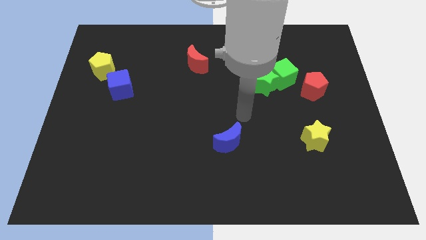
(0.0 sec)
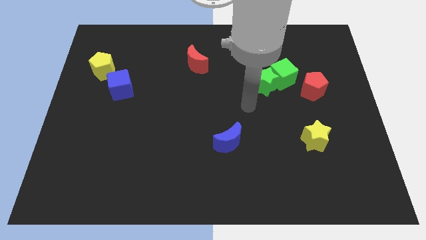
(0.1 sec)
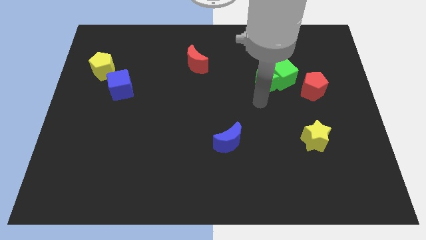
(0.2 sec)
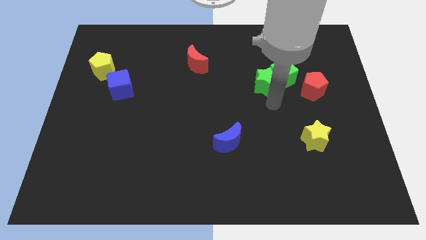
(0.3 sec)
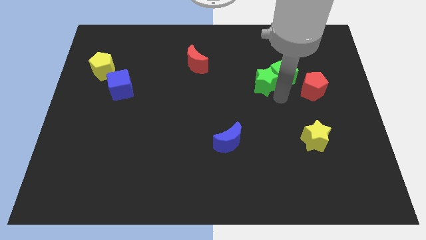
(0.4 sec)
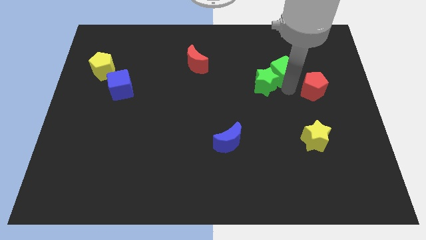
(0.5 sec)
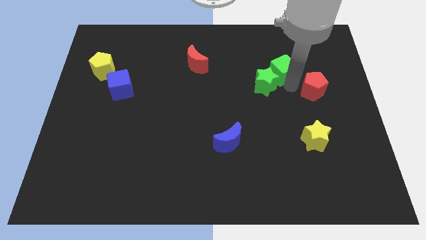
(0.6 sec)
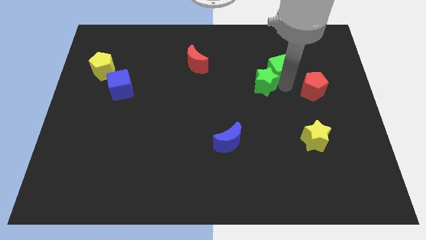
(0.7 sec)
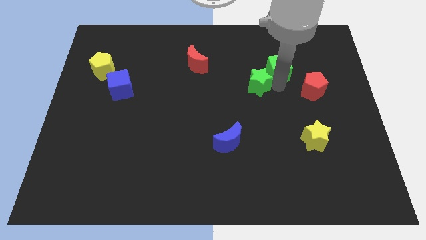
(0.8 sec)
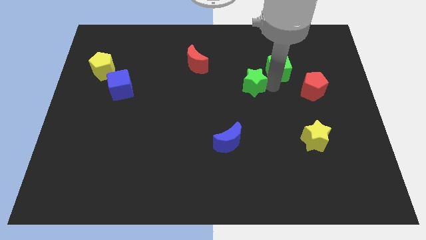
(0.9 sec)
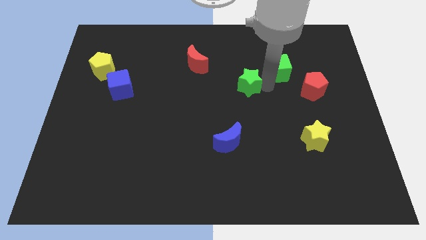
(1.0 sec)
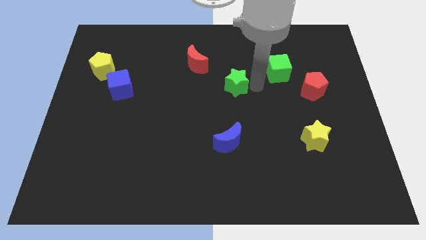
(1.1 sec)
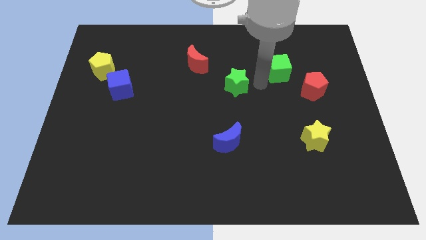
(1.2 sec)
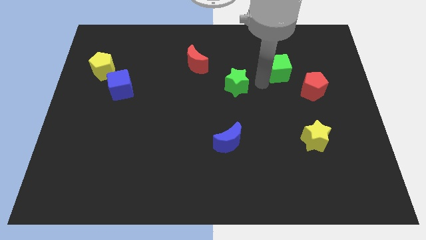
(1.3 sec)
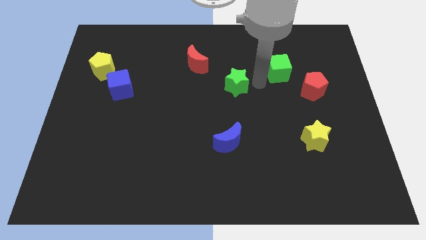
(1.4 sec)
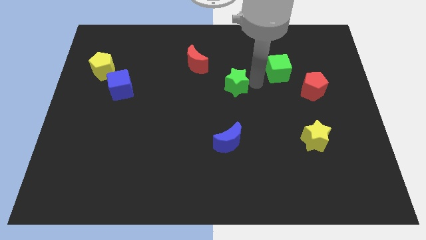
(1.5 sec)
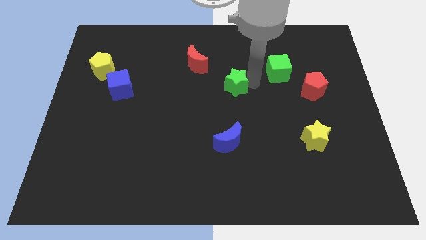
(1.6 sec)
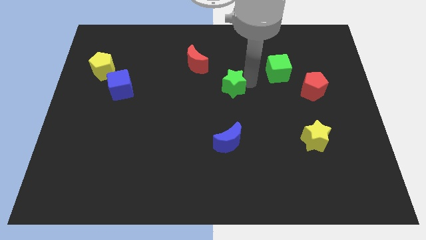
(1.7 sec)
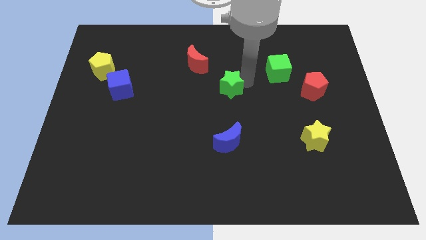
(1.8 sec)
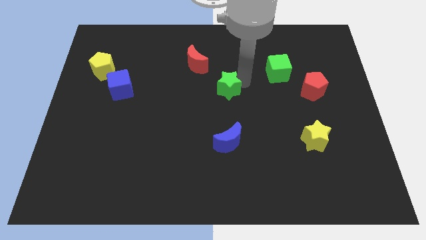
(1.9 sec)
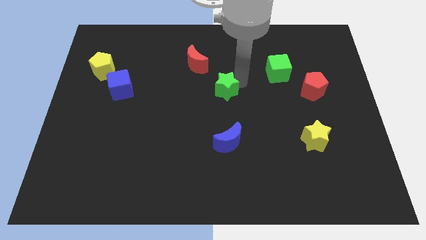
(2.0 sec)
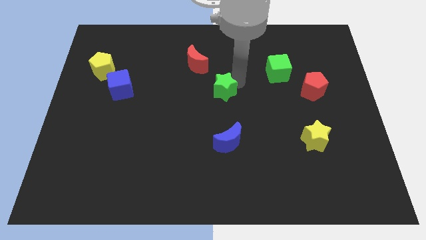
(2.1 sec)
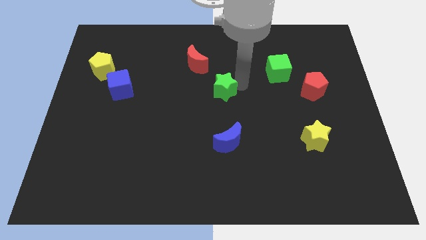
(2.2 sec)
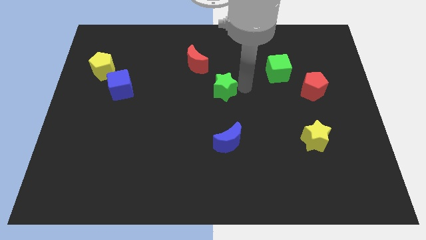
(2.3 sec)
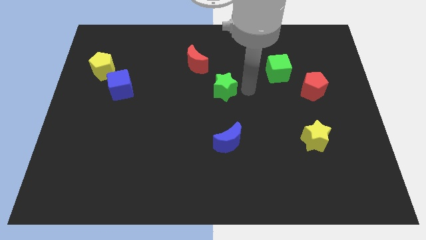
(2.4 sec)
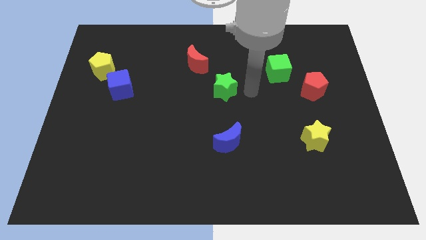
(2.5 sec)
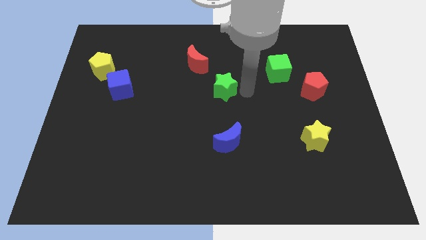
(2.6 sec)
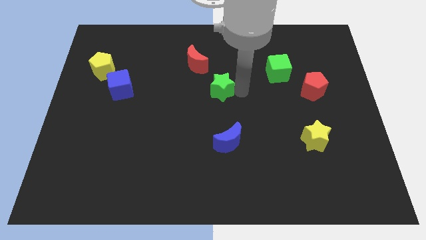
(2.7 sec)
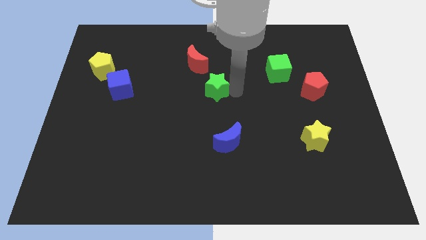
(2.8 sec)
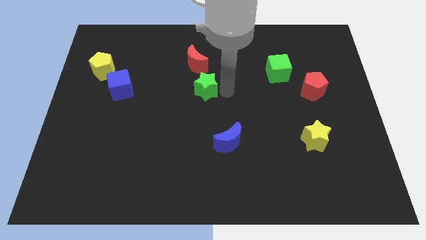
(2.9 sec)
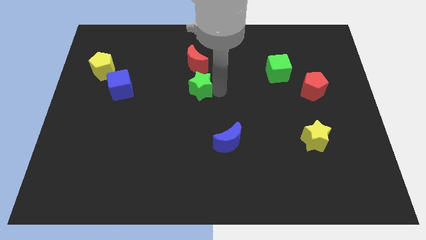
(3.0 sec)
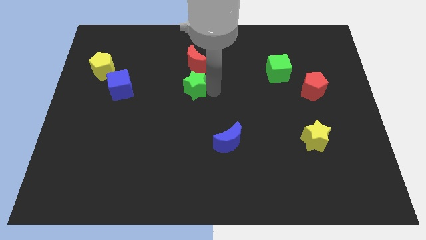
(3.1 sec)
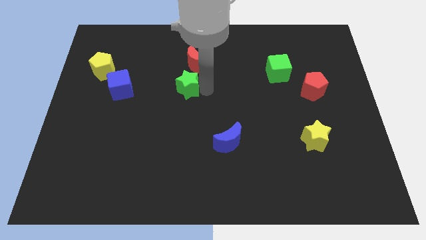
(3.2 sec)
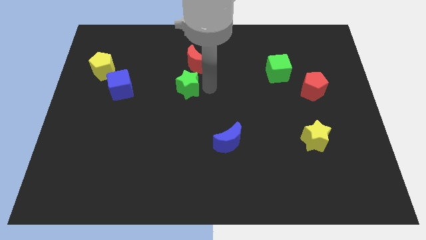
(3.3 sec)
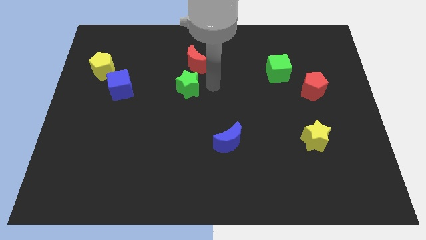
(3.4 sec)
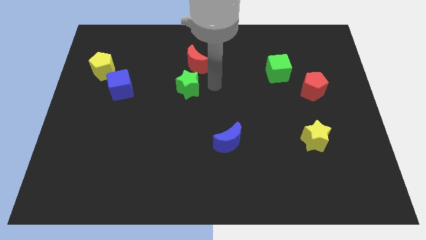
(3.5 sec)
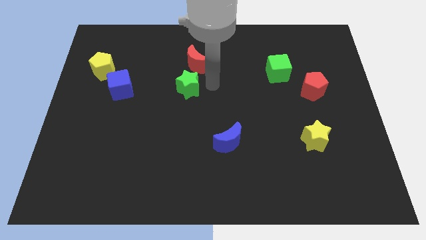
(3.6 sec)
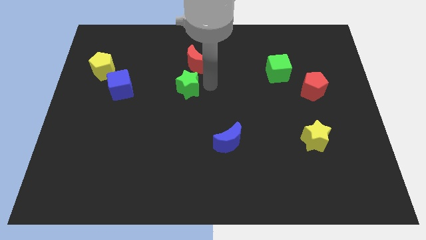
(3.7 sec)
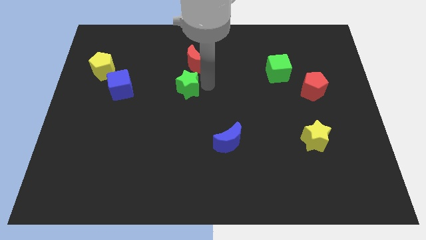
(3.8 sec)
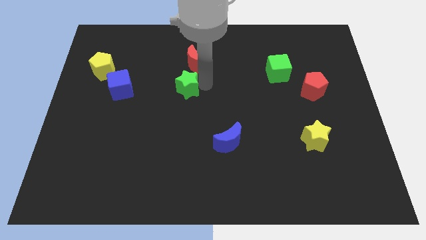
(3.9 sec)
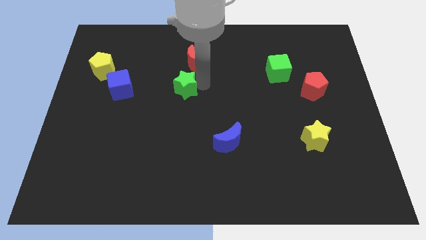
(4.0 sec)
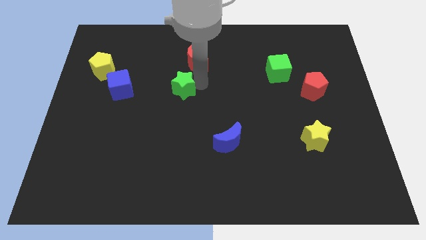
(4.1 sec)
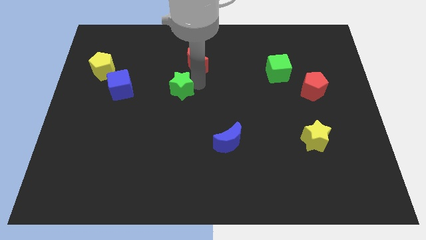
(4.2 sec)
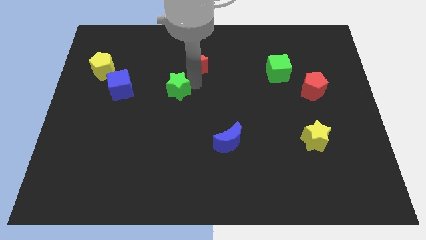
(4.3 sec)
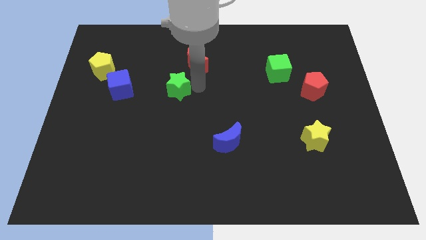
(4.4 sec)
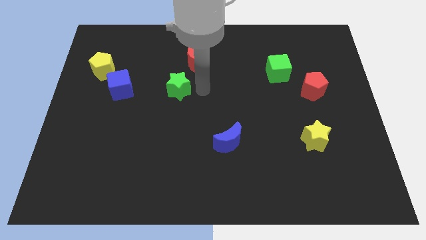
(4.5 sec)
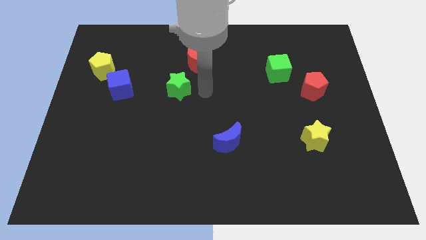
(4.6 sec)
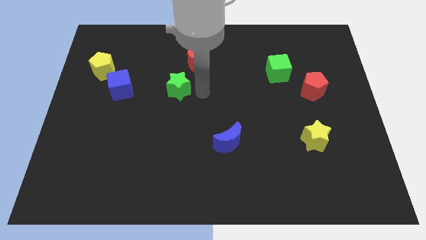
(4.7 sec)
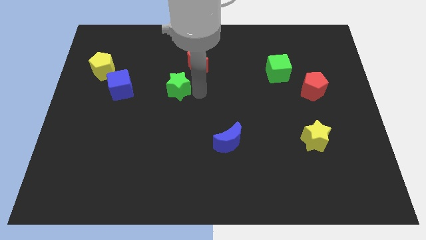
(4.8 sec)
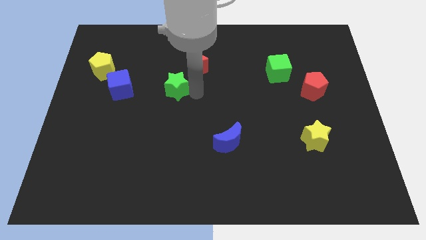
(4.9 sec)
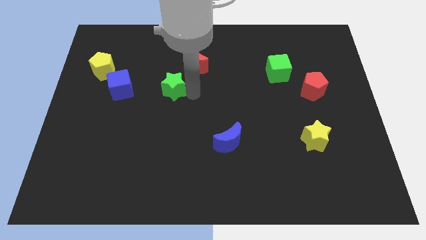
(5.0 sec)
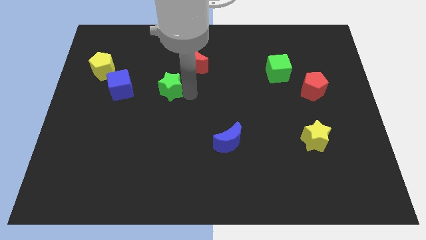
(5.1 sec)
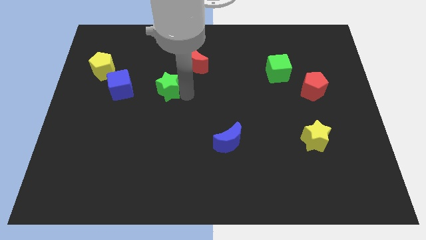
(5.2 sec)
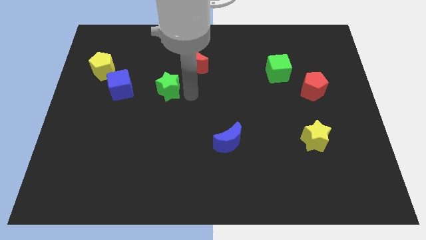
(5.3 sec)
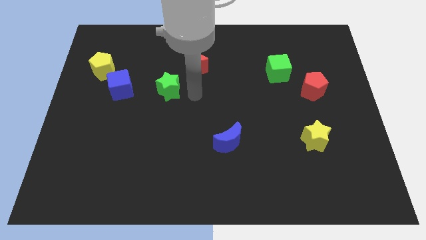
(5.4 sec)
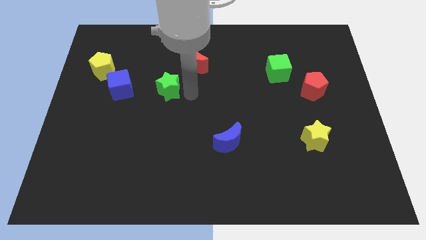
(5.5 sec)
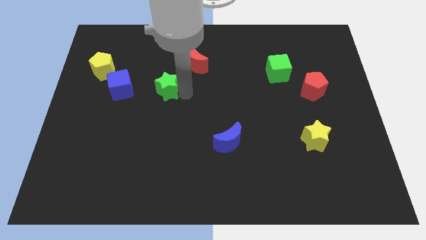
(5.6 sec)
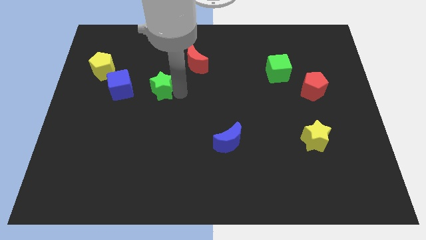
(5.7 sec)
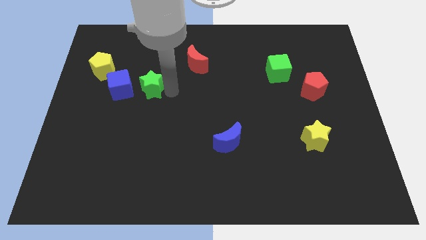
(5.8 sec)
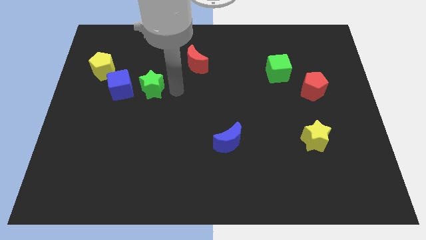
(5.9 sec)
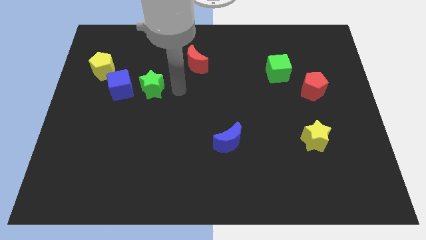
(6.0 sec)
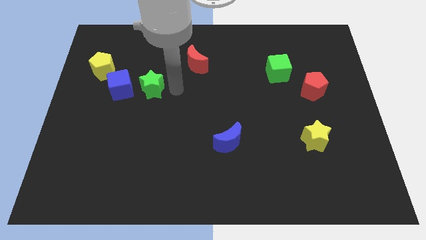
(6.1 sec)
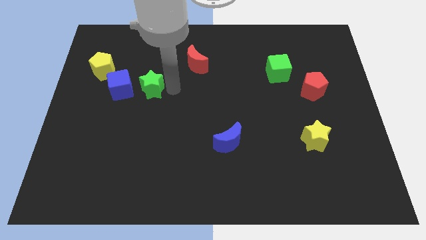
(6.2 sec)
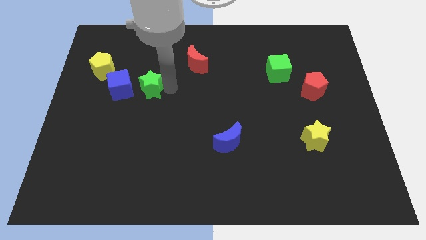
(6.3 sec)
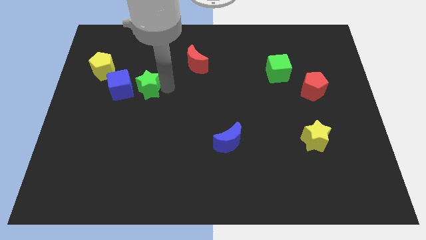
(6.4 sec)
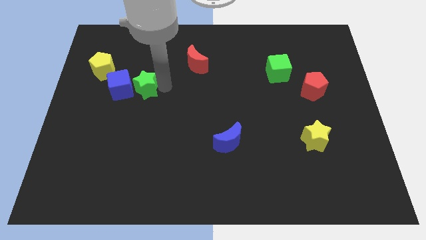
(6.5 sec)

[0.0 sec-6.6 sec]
move the green star to the blue cube

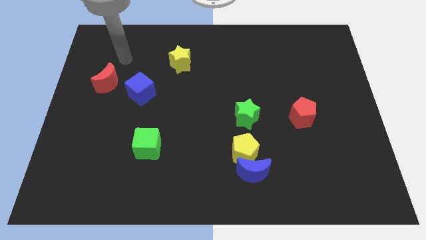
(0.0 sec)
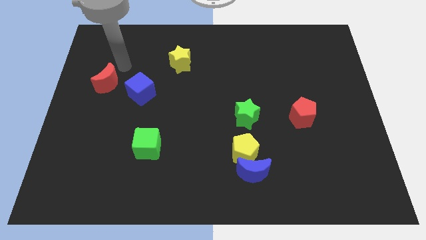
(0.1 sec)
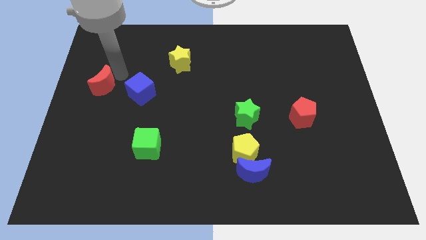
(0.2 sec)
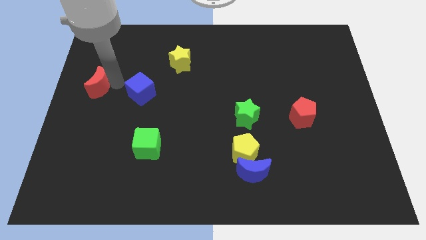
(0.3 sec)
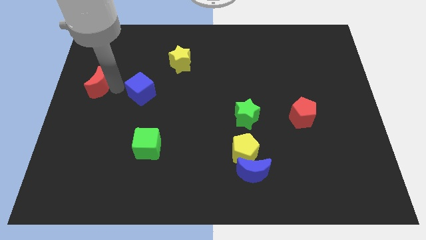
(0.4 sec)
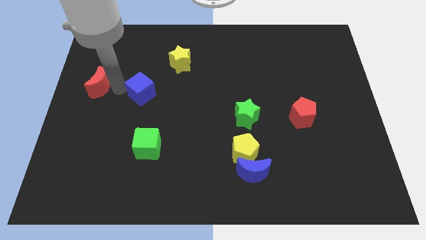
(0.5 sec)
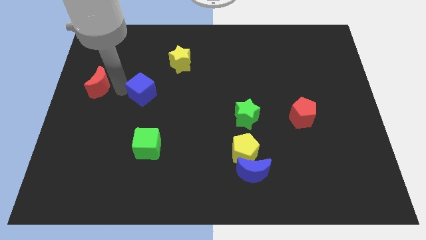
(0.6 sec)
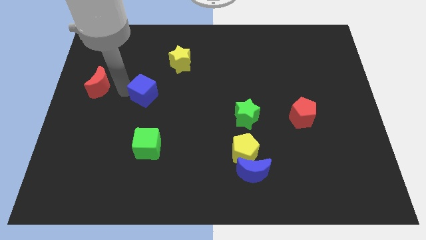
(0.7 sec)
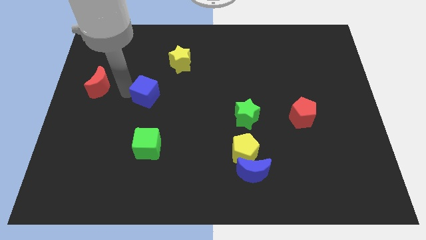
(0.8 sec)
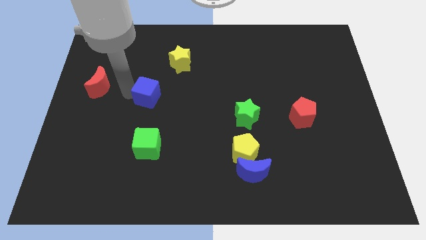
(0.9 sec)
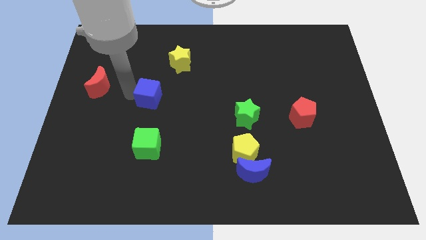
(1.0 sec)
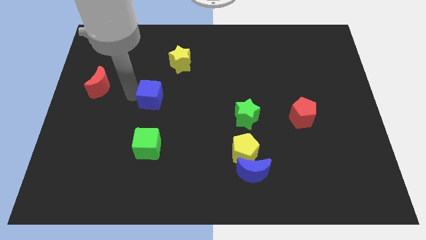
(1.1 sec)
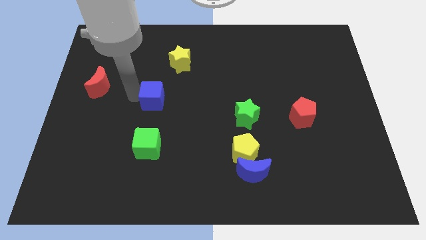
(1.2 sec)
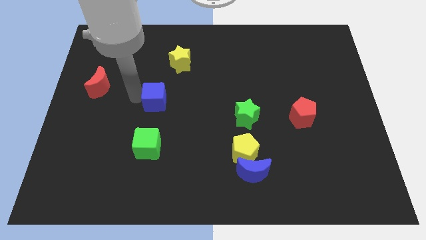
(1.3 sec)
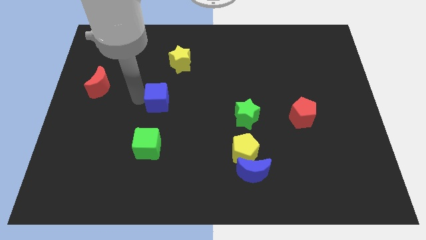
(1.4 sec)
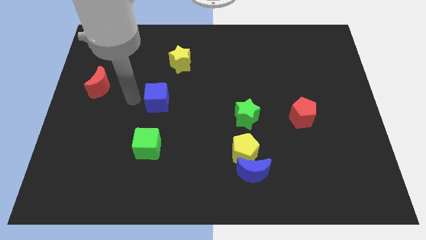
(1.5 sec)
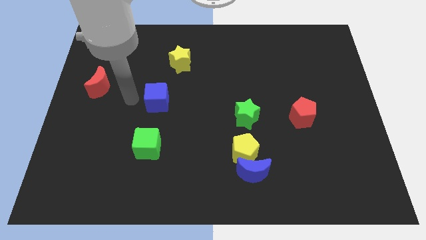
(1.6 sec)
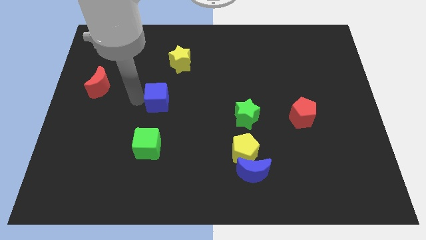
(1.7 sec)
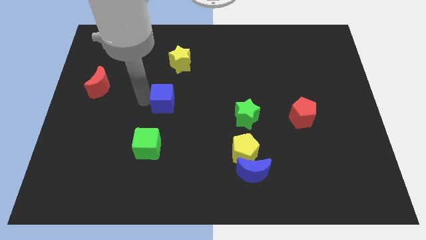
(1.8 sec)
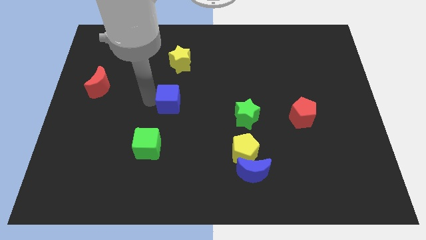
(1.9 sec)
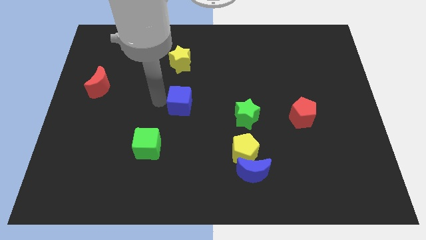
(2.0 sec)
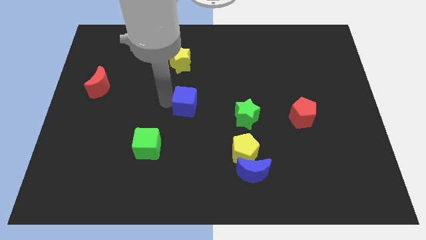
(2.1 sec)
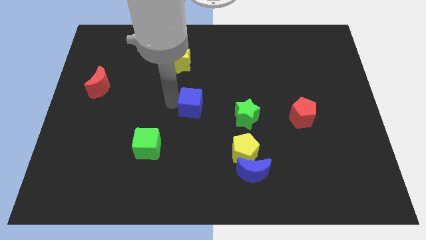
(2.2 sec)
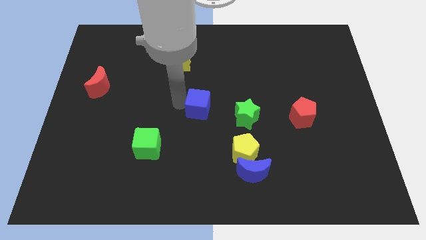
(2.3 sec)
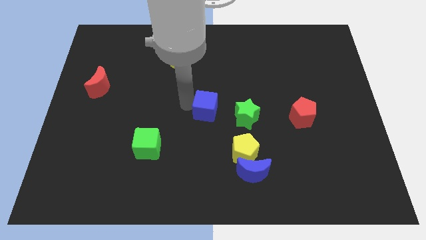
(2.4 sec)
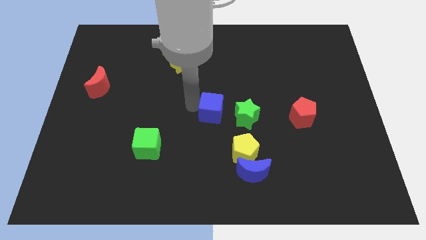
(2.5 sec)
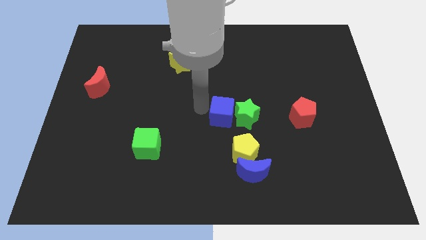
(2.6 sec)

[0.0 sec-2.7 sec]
move the blue cube towards the green star
